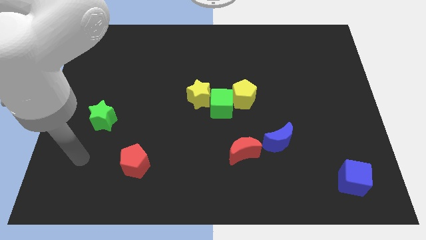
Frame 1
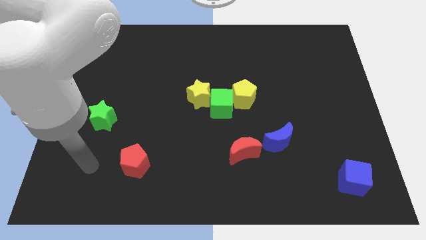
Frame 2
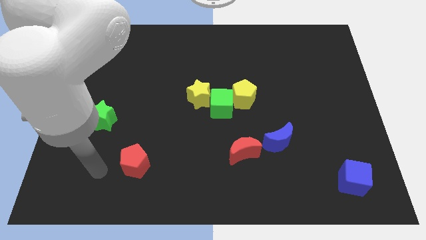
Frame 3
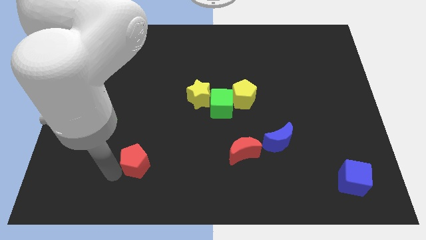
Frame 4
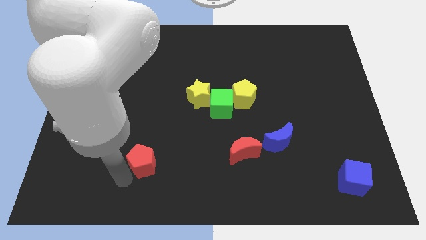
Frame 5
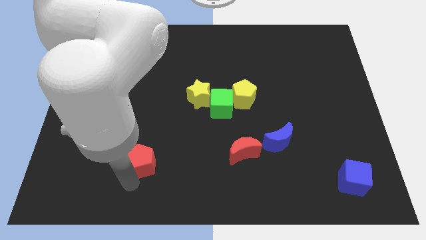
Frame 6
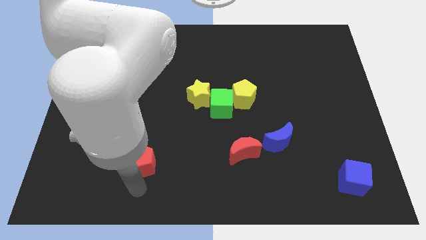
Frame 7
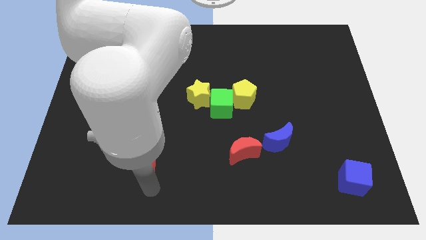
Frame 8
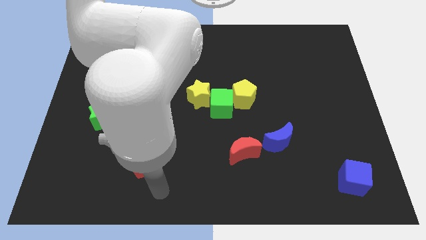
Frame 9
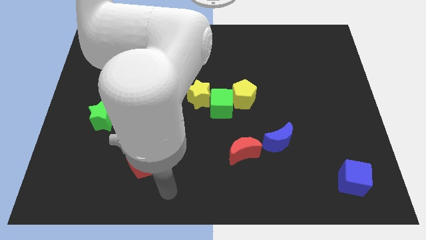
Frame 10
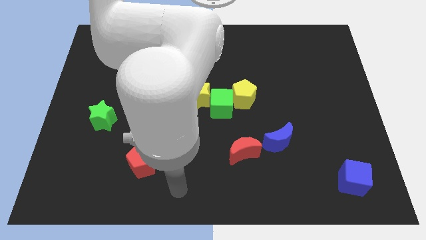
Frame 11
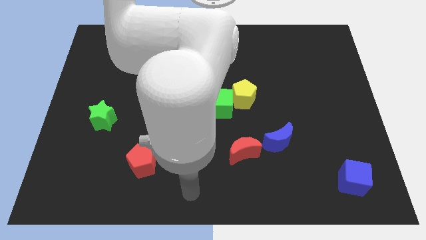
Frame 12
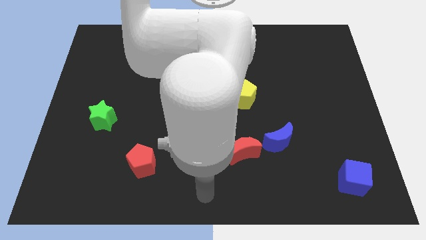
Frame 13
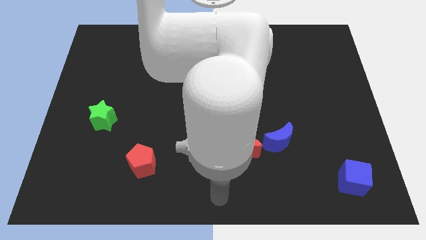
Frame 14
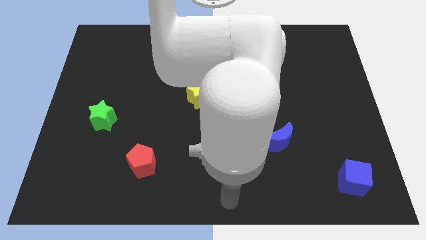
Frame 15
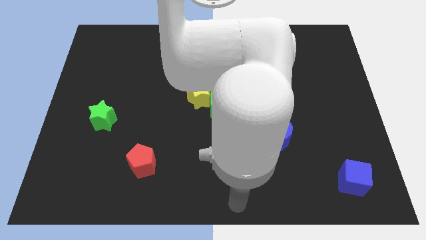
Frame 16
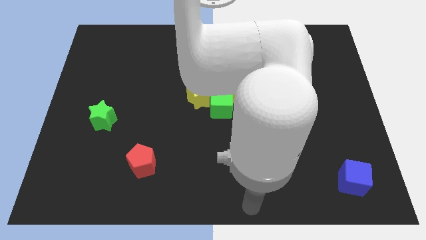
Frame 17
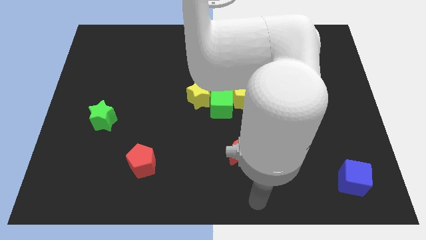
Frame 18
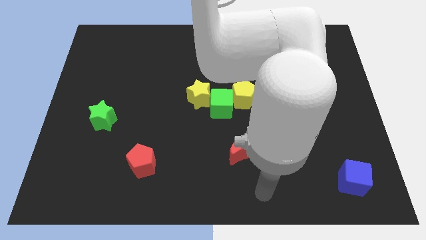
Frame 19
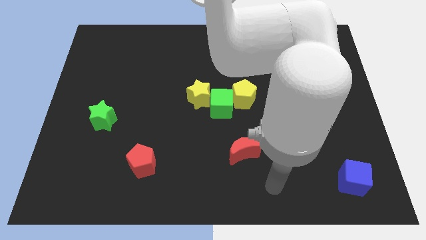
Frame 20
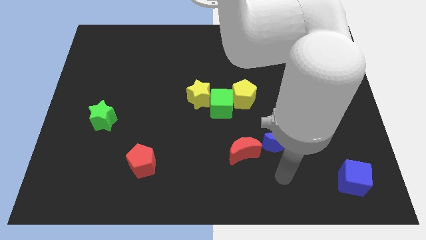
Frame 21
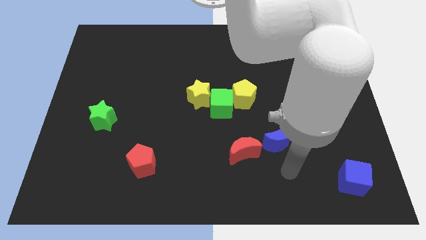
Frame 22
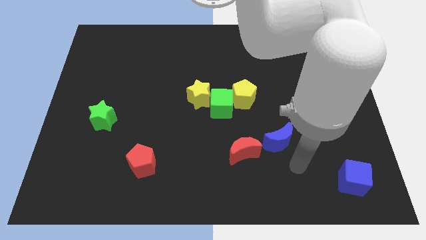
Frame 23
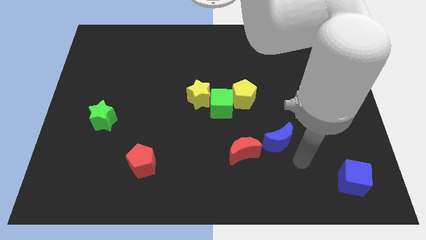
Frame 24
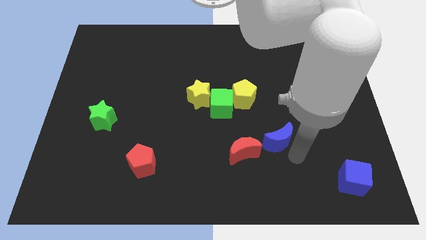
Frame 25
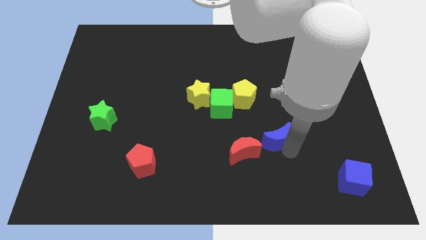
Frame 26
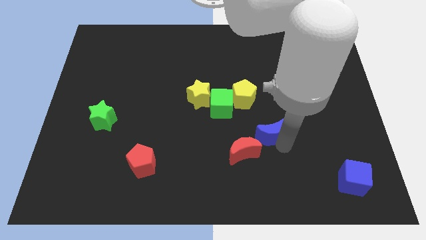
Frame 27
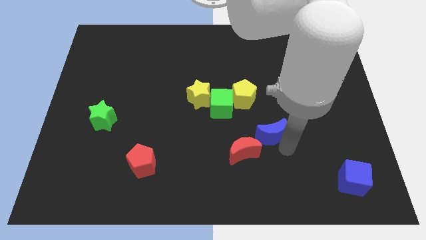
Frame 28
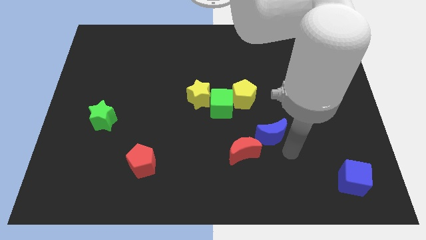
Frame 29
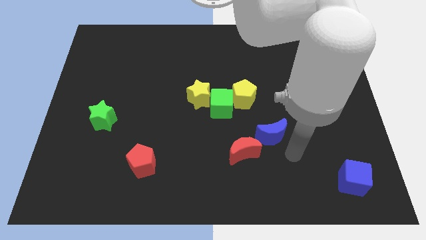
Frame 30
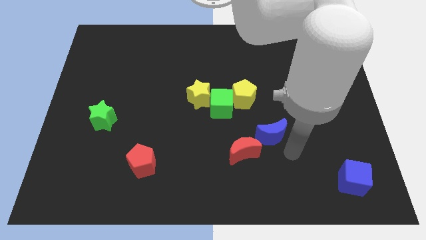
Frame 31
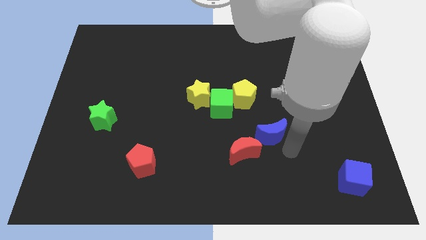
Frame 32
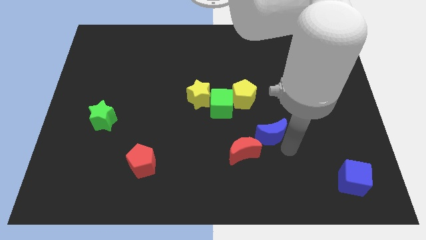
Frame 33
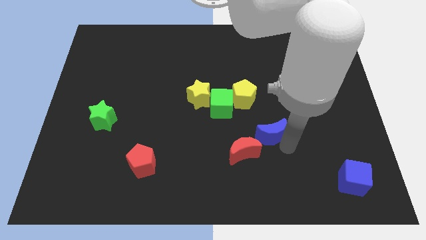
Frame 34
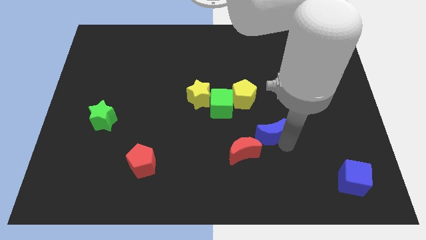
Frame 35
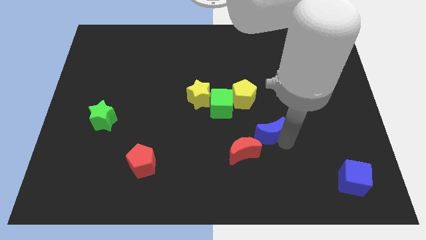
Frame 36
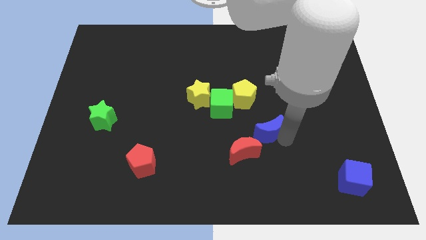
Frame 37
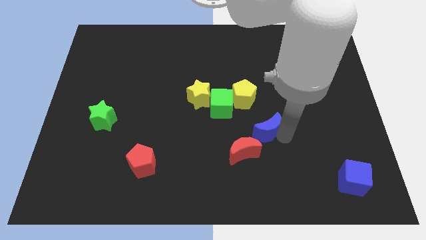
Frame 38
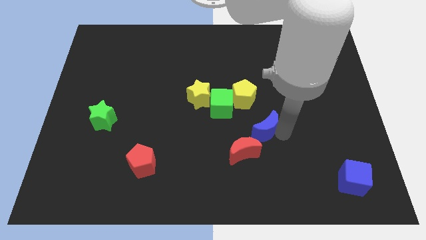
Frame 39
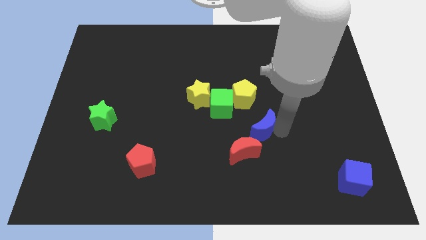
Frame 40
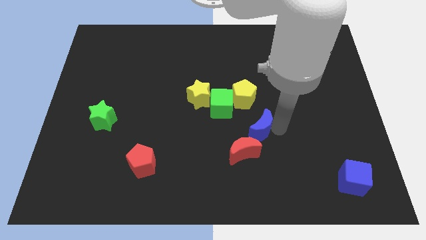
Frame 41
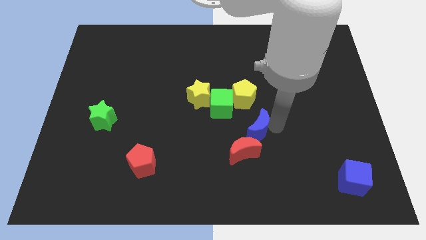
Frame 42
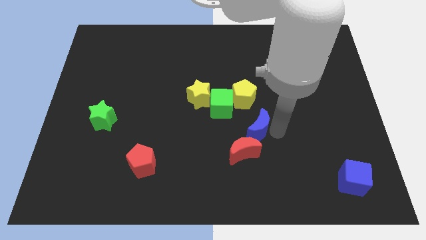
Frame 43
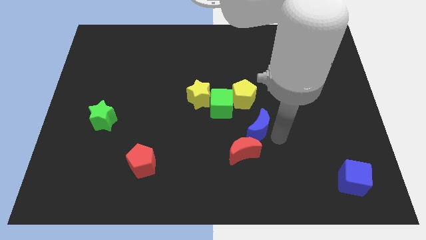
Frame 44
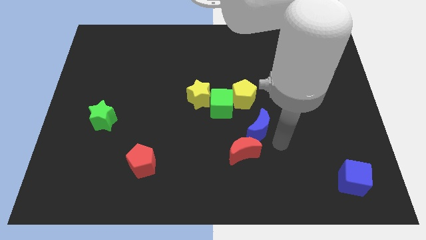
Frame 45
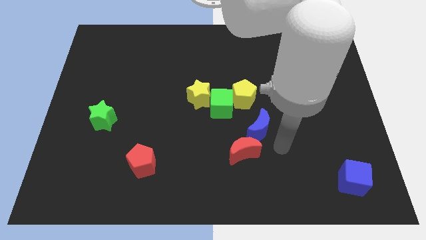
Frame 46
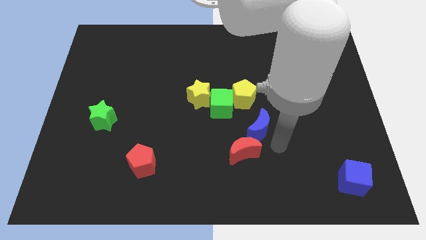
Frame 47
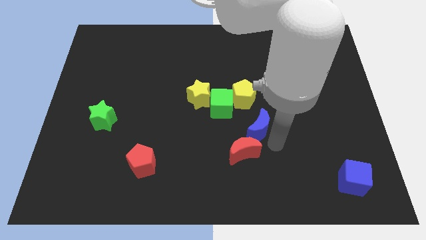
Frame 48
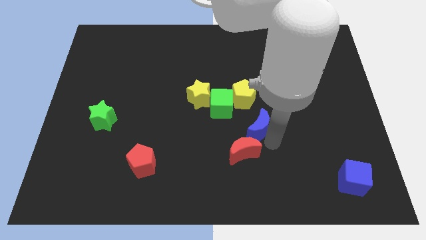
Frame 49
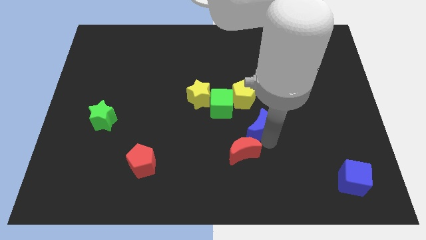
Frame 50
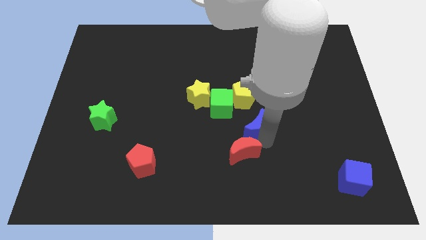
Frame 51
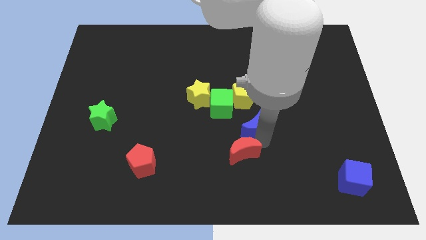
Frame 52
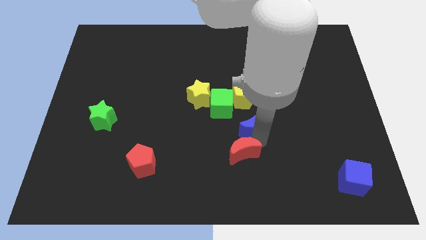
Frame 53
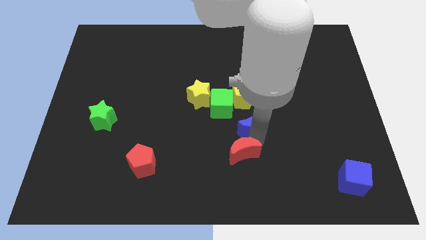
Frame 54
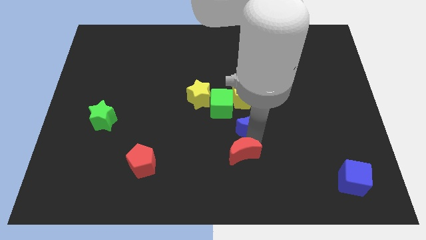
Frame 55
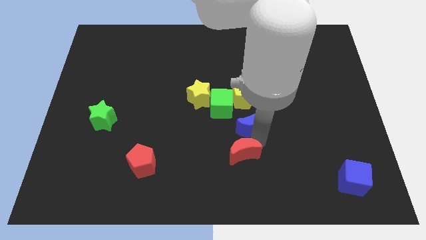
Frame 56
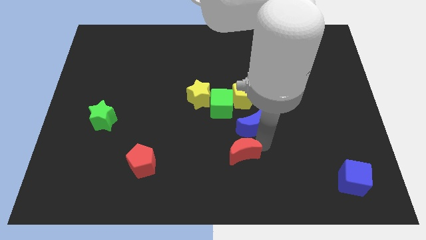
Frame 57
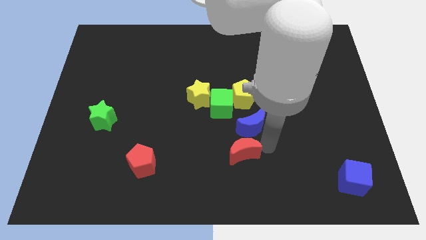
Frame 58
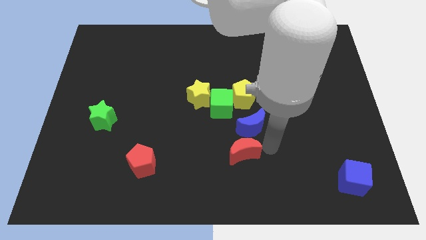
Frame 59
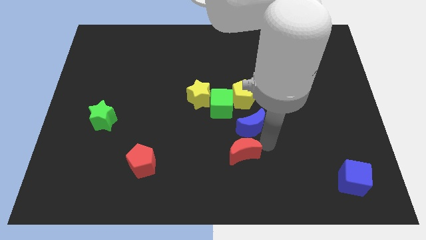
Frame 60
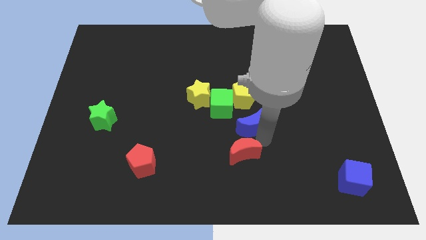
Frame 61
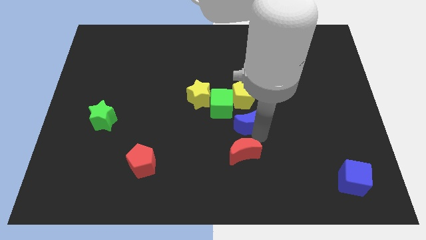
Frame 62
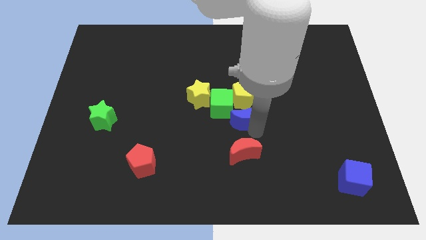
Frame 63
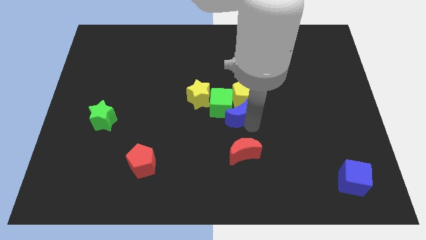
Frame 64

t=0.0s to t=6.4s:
put the blue moon next to the green cube

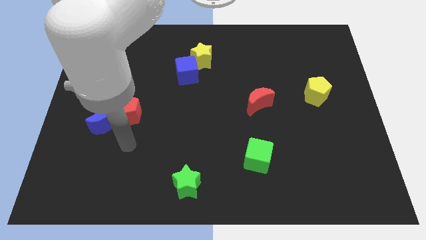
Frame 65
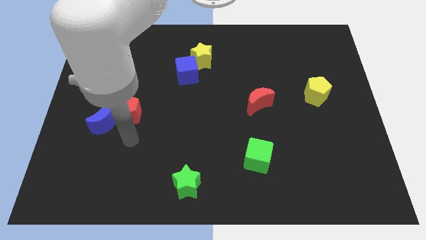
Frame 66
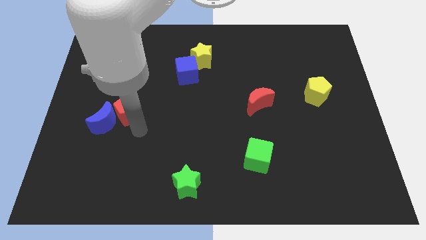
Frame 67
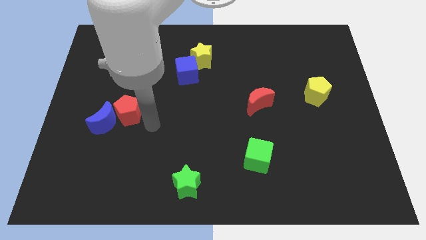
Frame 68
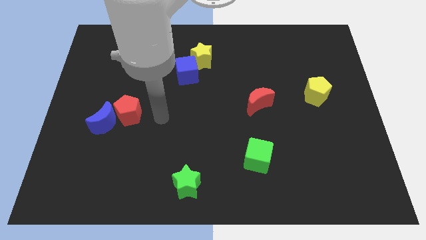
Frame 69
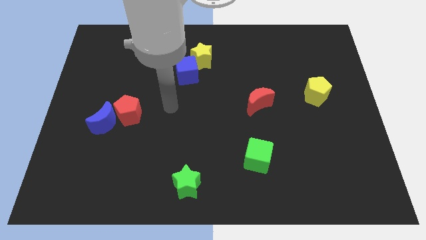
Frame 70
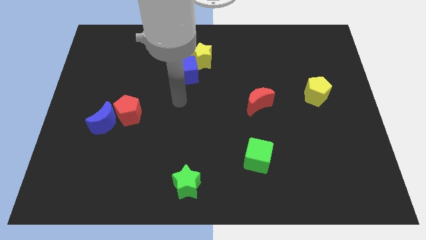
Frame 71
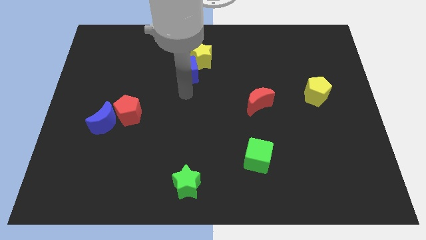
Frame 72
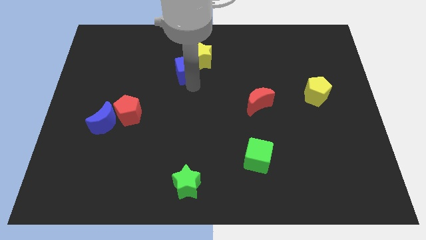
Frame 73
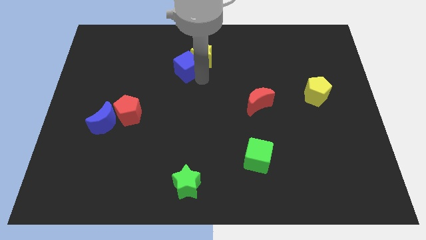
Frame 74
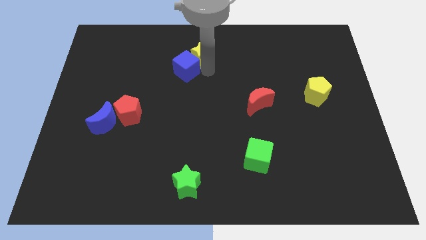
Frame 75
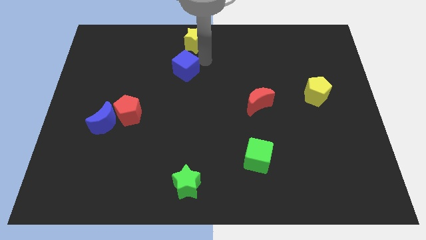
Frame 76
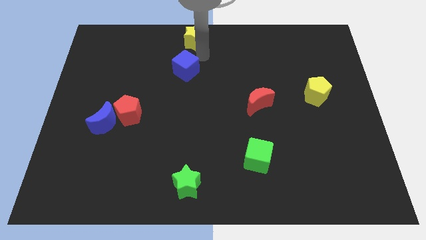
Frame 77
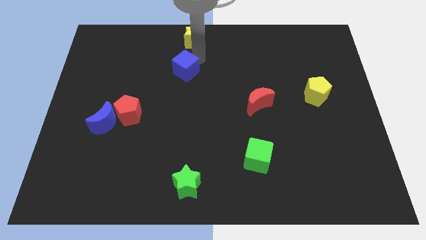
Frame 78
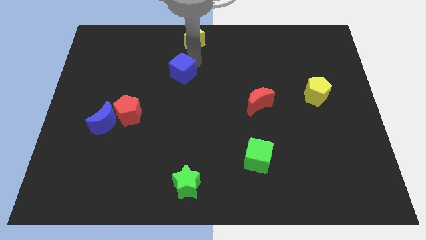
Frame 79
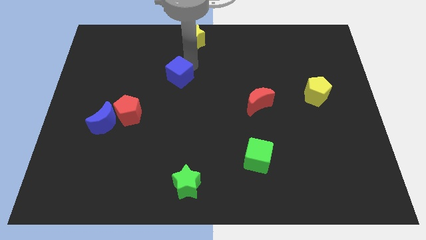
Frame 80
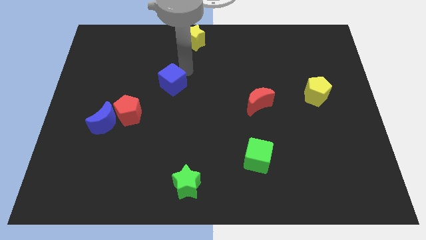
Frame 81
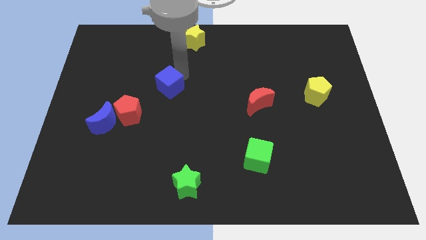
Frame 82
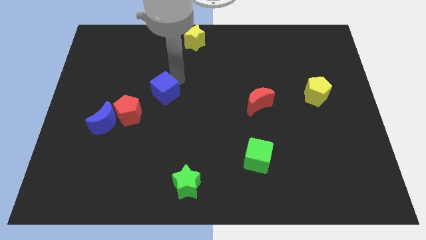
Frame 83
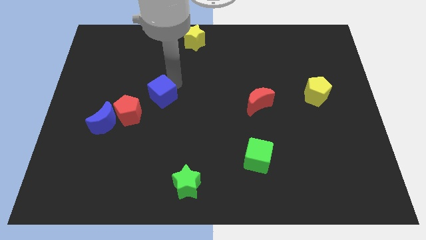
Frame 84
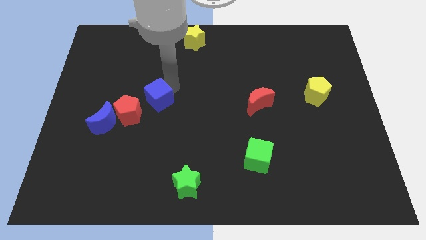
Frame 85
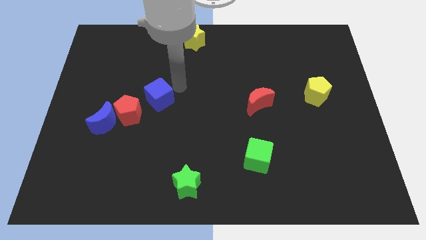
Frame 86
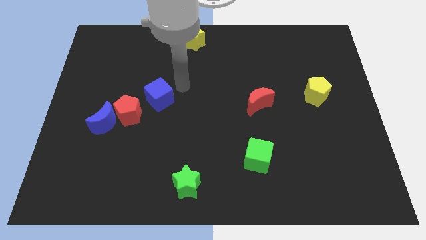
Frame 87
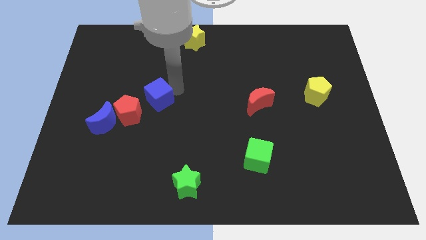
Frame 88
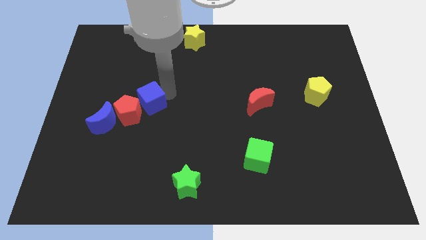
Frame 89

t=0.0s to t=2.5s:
move the blue cube close to the red pentagon
